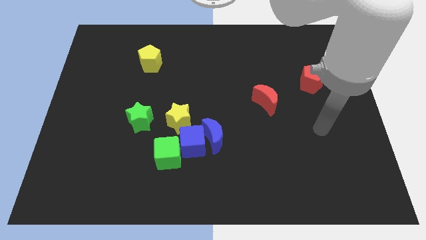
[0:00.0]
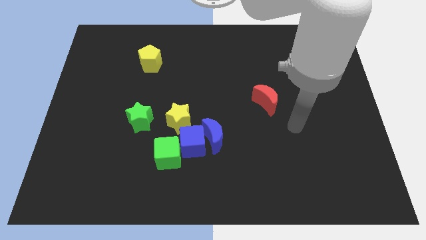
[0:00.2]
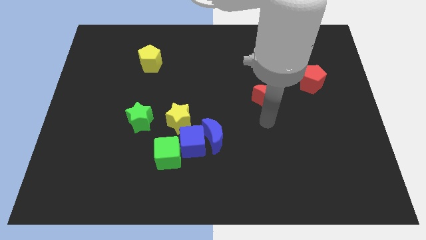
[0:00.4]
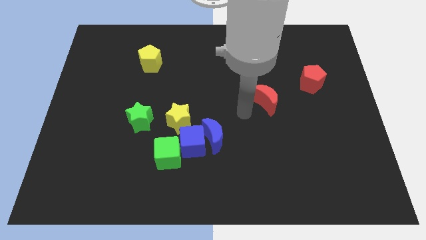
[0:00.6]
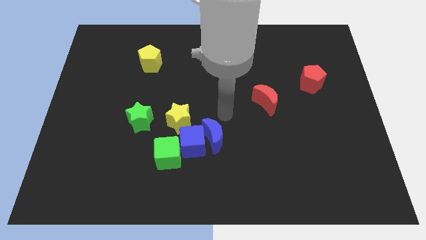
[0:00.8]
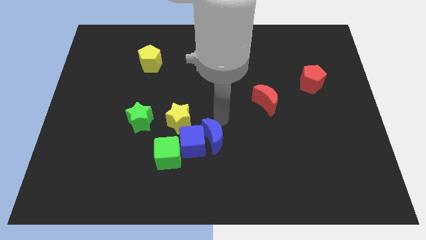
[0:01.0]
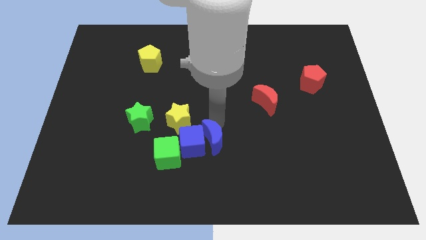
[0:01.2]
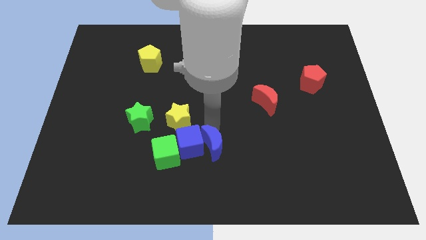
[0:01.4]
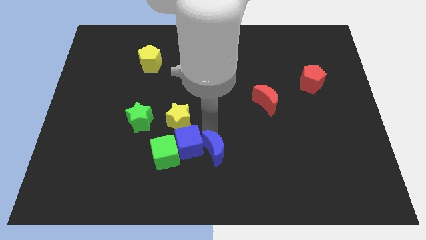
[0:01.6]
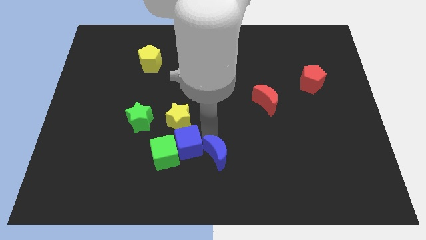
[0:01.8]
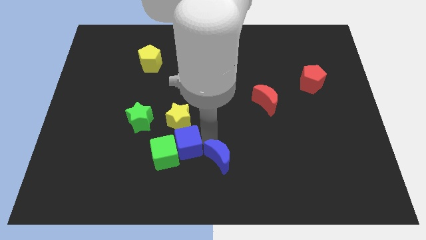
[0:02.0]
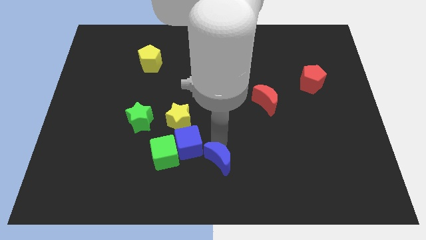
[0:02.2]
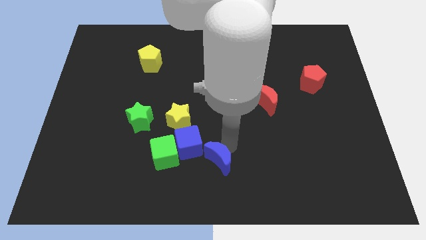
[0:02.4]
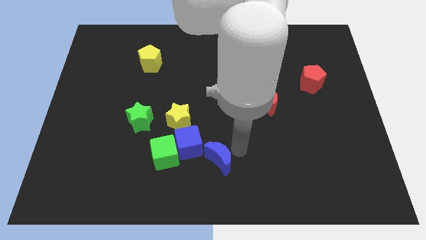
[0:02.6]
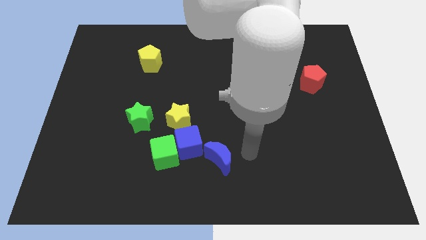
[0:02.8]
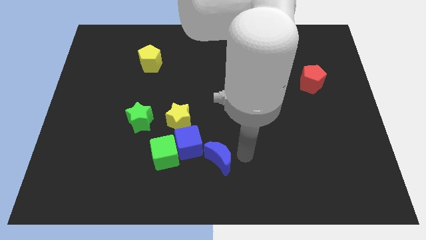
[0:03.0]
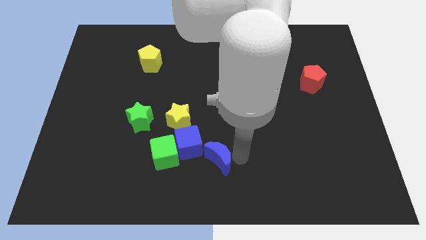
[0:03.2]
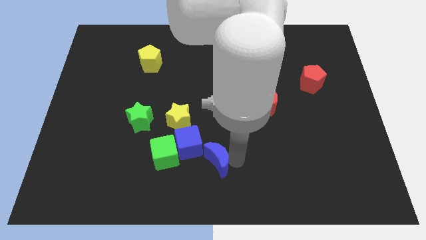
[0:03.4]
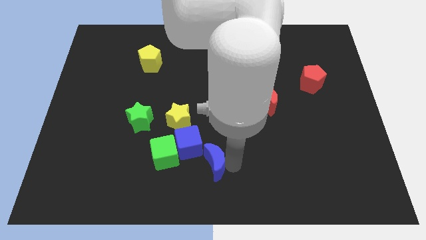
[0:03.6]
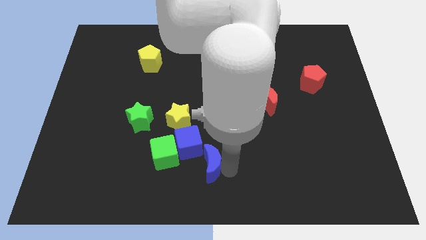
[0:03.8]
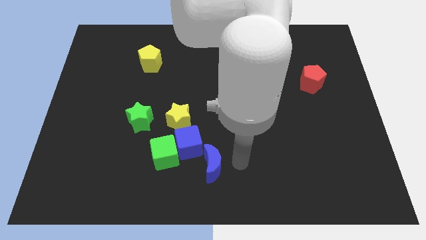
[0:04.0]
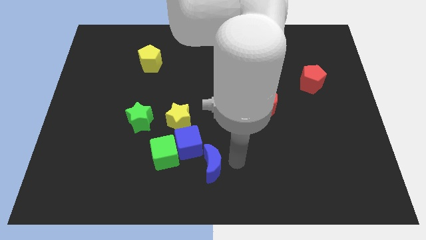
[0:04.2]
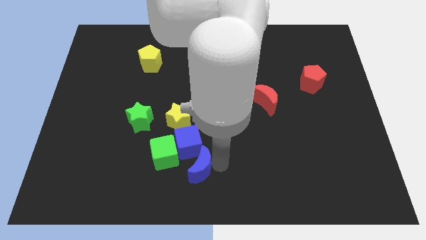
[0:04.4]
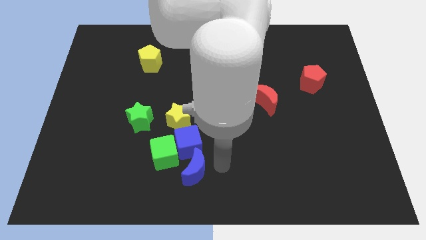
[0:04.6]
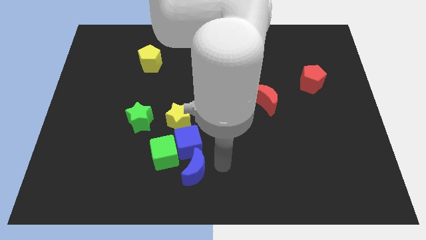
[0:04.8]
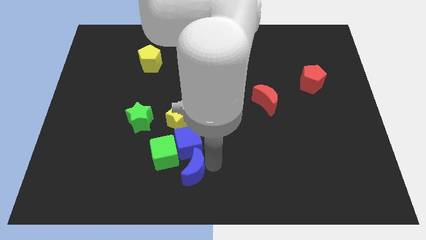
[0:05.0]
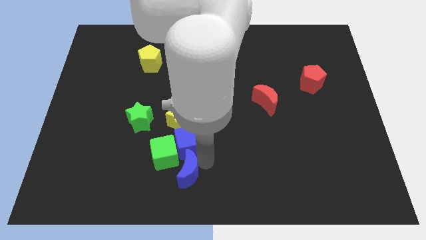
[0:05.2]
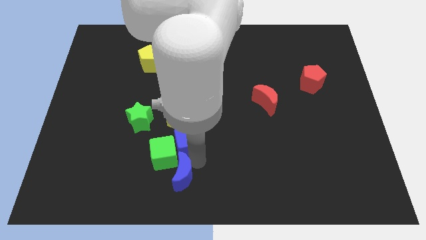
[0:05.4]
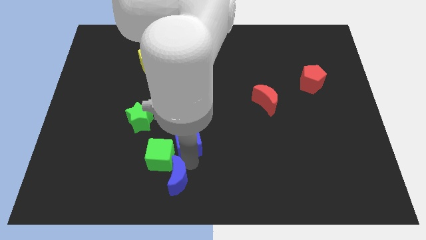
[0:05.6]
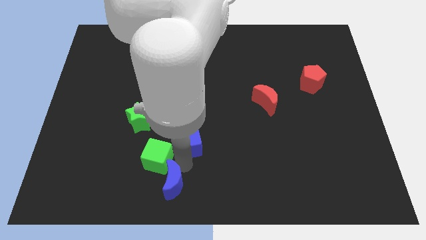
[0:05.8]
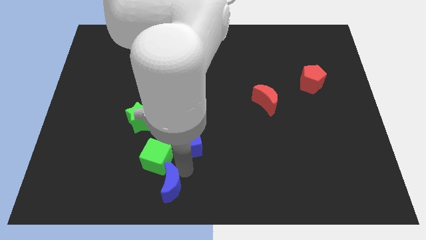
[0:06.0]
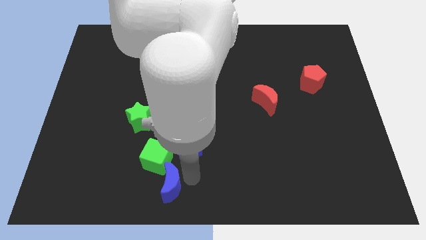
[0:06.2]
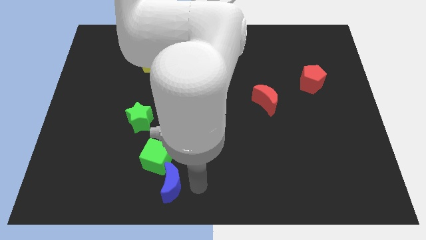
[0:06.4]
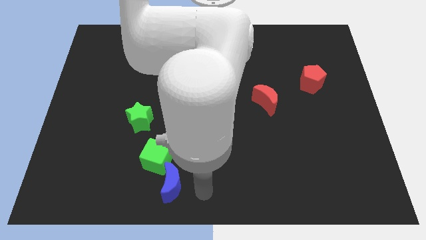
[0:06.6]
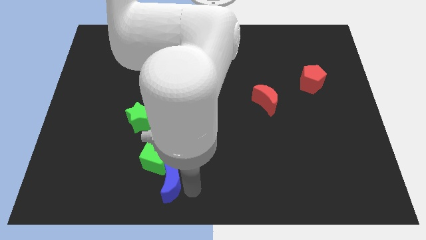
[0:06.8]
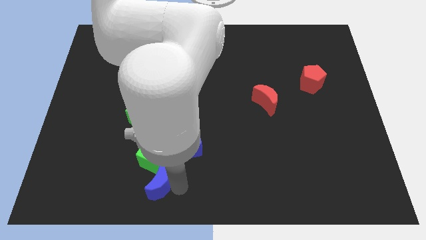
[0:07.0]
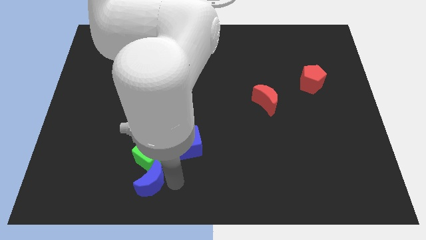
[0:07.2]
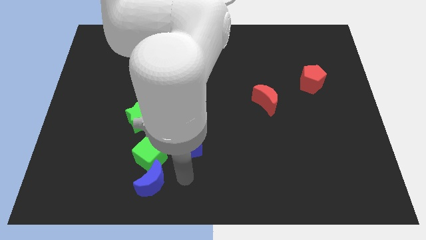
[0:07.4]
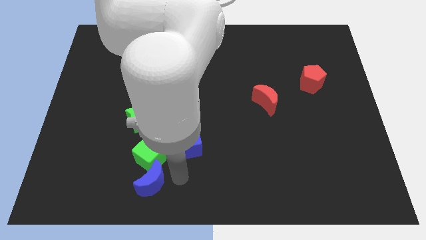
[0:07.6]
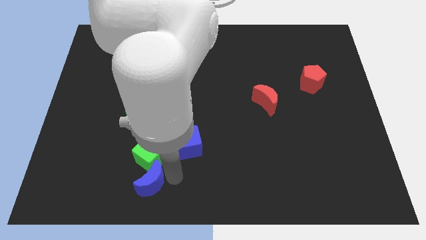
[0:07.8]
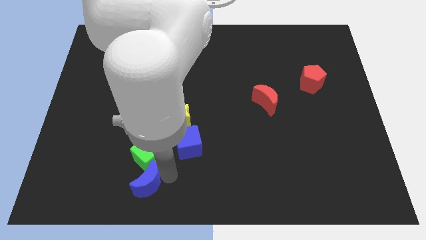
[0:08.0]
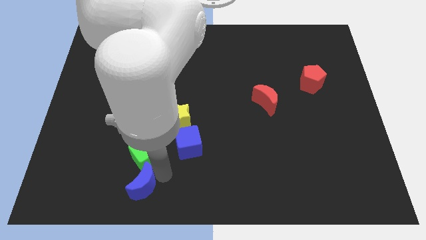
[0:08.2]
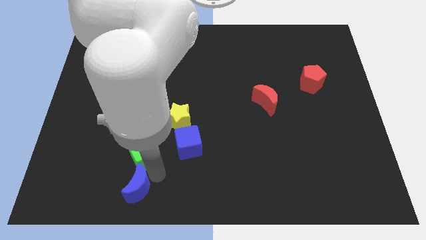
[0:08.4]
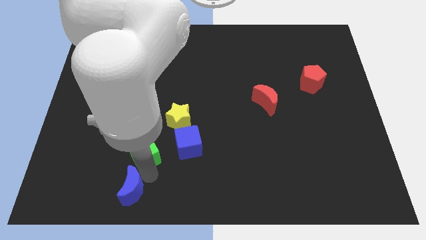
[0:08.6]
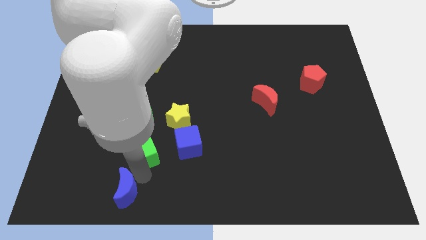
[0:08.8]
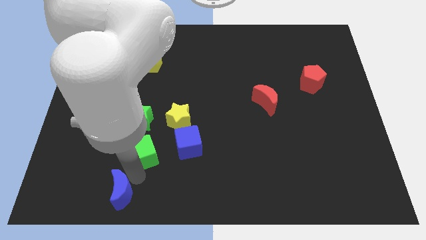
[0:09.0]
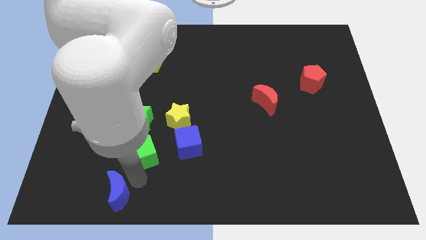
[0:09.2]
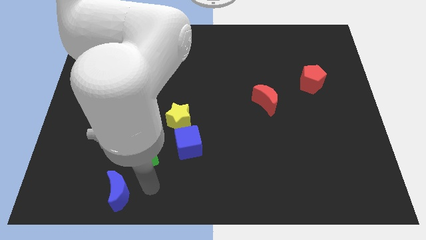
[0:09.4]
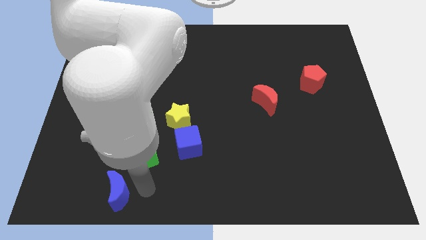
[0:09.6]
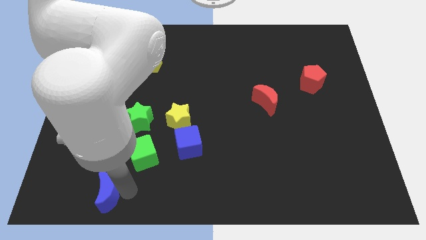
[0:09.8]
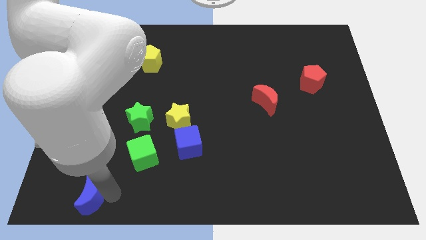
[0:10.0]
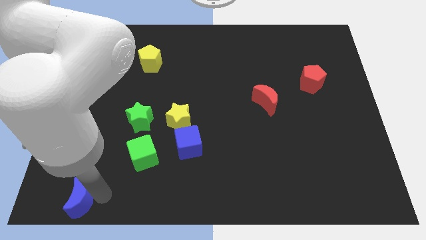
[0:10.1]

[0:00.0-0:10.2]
move the blue moon to the bottom left of the board

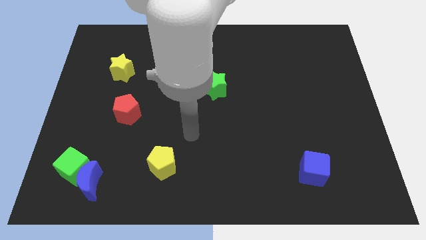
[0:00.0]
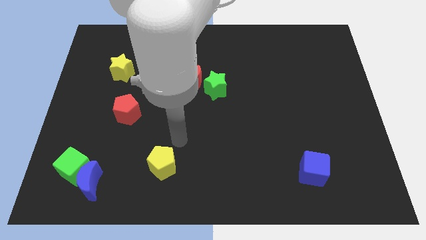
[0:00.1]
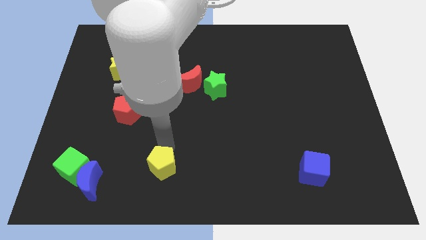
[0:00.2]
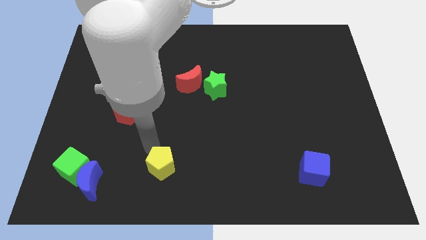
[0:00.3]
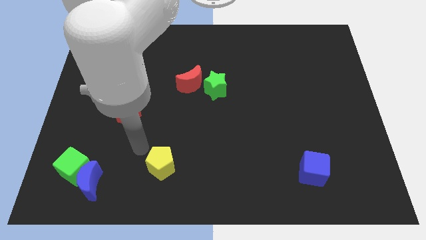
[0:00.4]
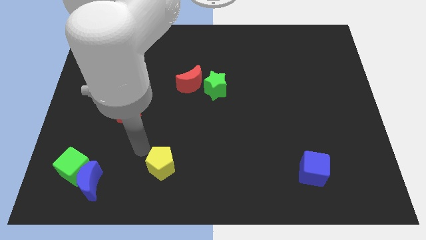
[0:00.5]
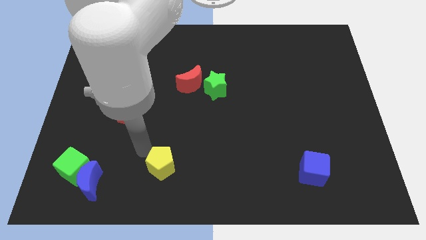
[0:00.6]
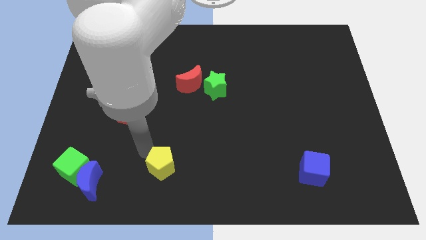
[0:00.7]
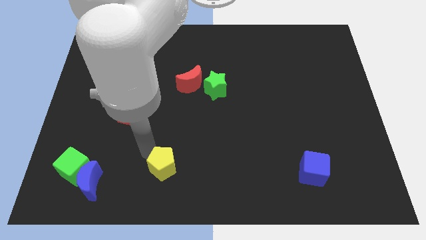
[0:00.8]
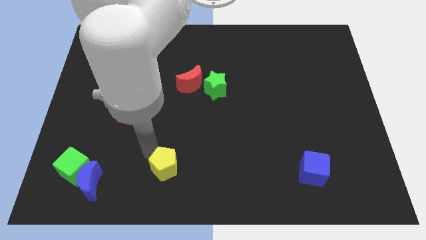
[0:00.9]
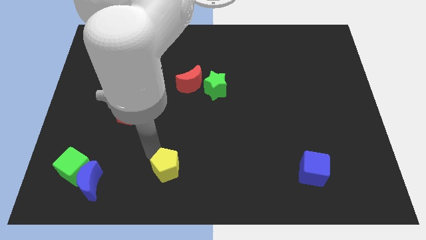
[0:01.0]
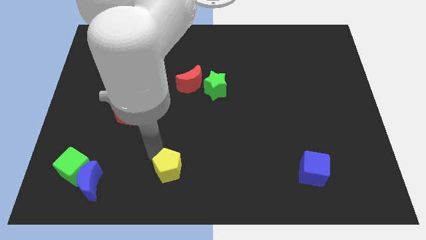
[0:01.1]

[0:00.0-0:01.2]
slide the yellow pentagon to the bottom
